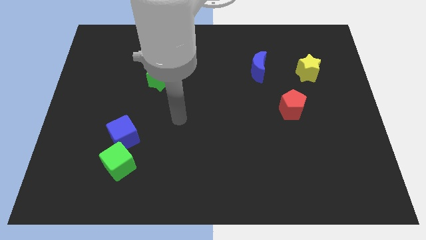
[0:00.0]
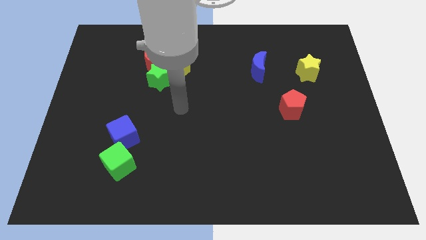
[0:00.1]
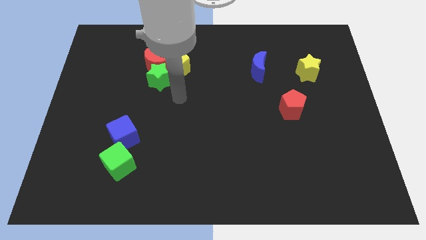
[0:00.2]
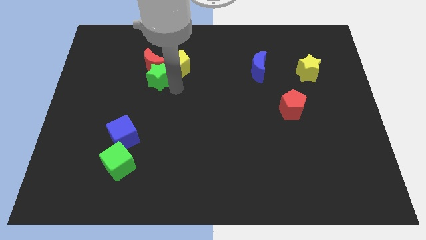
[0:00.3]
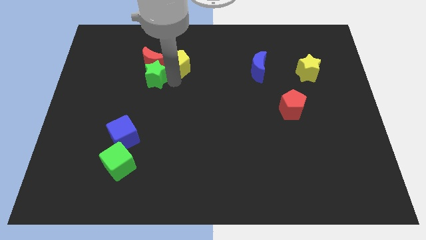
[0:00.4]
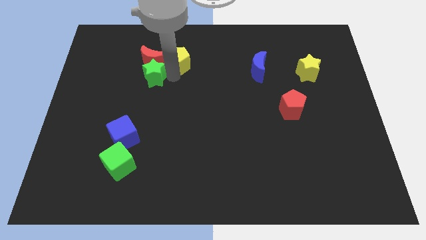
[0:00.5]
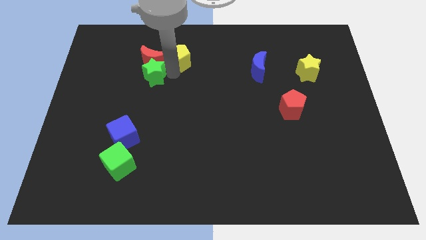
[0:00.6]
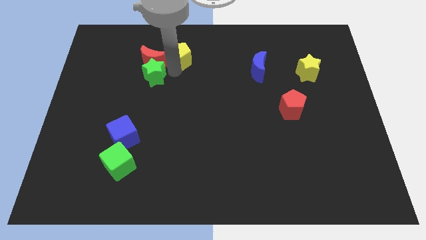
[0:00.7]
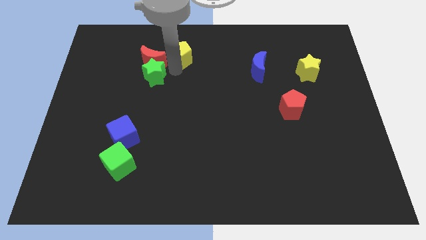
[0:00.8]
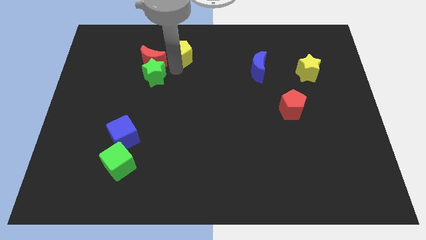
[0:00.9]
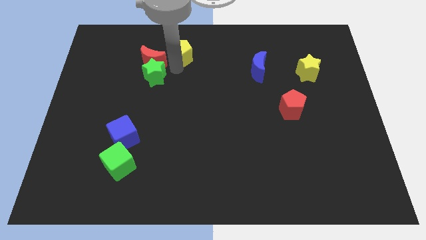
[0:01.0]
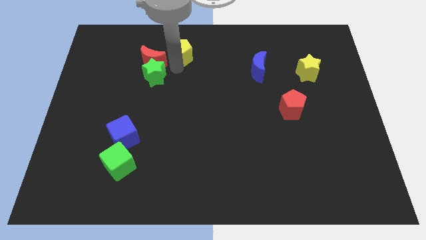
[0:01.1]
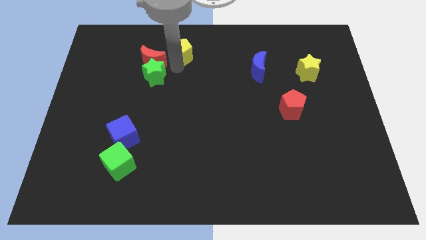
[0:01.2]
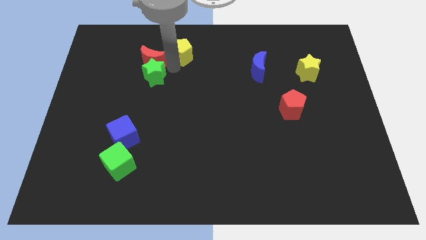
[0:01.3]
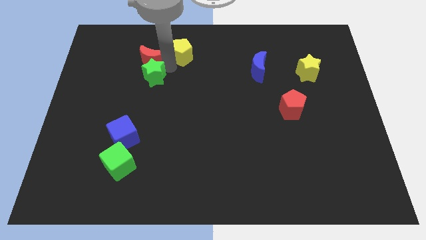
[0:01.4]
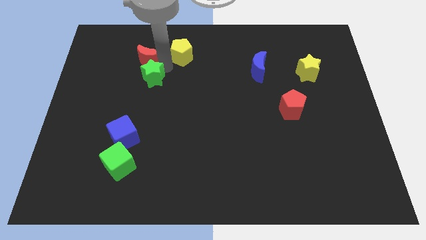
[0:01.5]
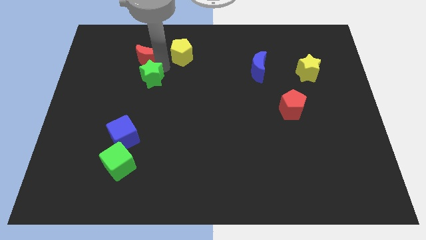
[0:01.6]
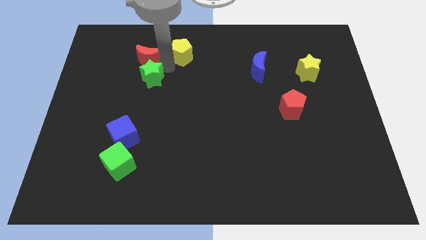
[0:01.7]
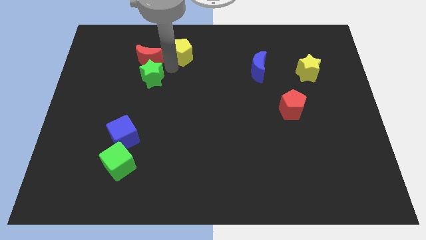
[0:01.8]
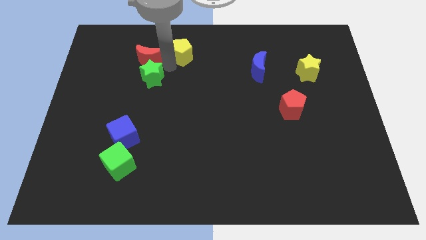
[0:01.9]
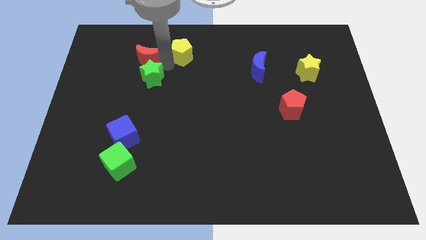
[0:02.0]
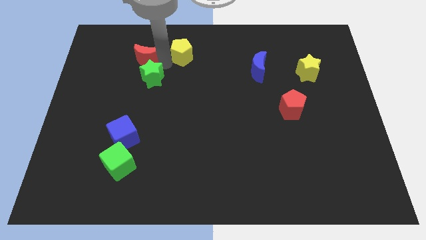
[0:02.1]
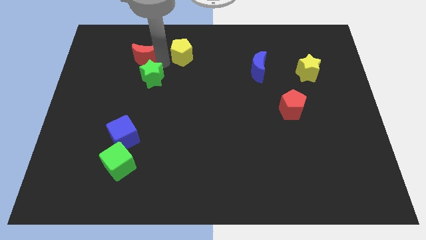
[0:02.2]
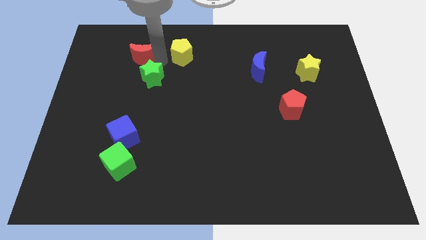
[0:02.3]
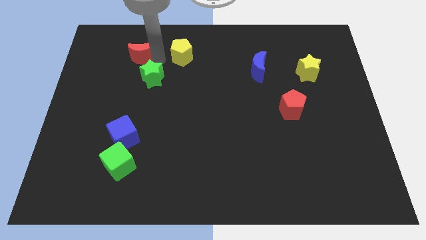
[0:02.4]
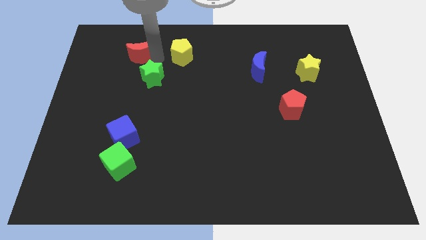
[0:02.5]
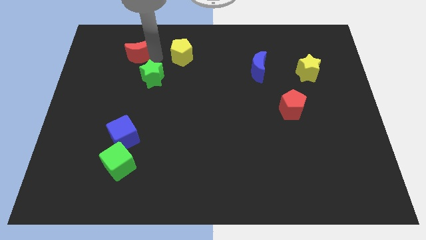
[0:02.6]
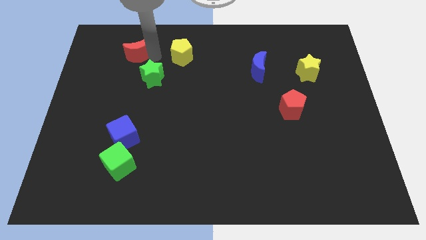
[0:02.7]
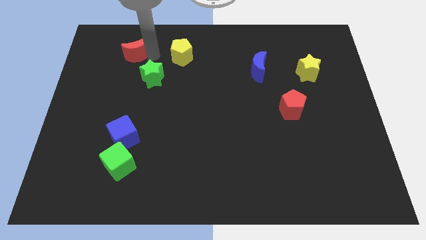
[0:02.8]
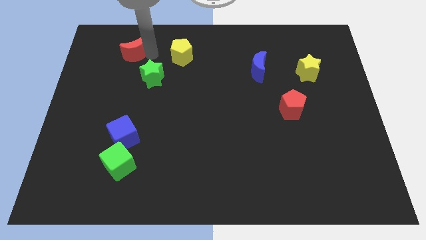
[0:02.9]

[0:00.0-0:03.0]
pull the red moon apart from the green star and yellow pentagon

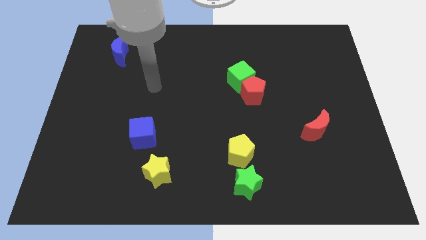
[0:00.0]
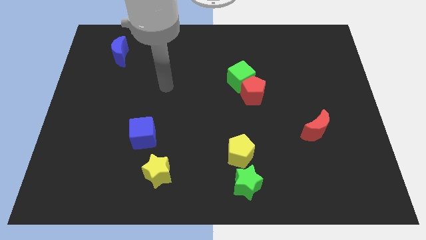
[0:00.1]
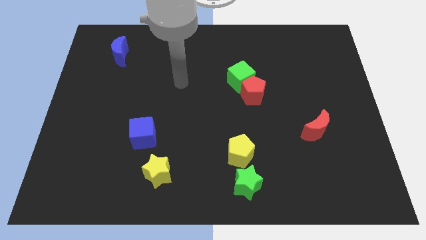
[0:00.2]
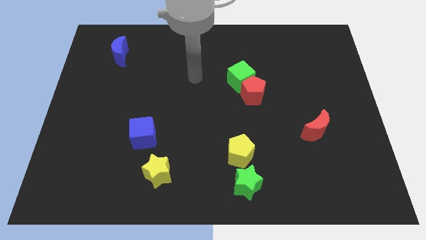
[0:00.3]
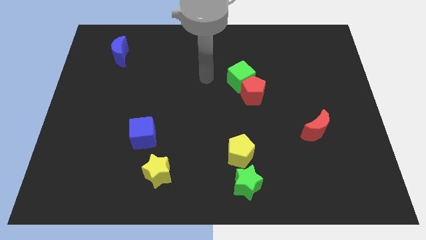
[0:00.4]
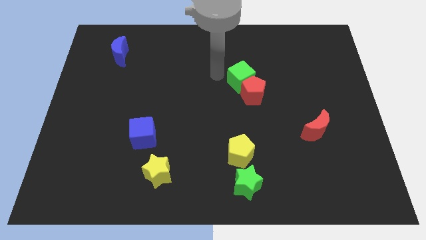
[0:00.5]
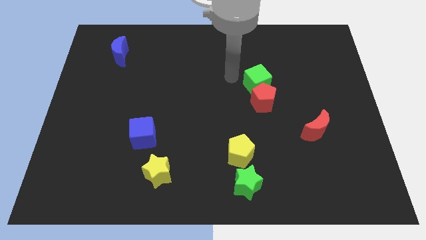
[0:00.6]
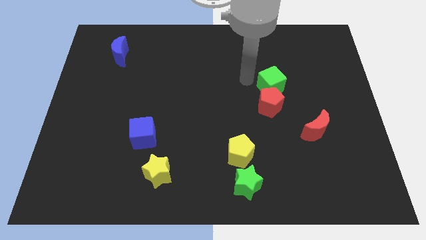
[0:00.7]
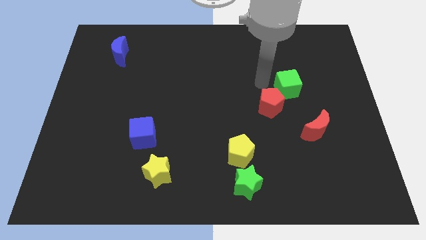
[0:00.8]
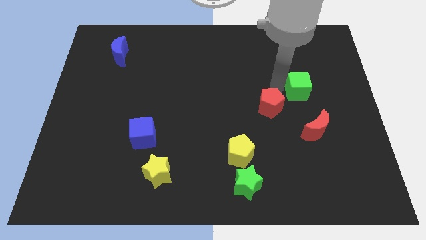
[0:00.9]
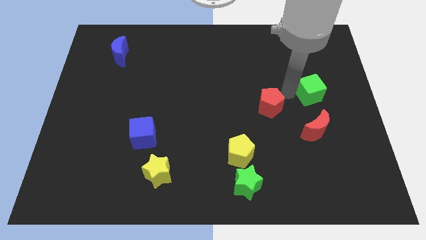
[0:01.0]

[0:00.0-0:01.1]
pull the red pentagon apart from the green cube

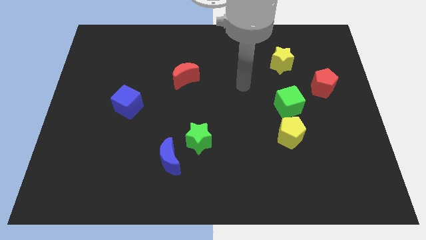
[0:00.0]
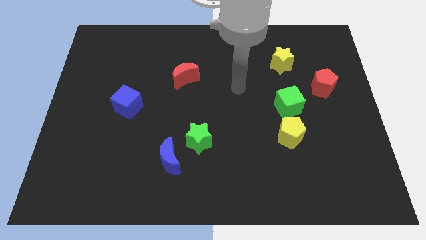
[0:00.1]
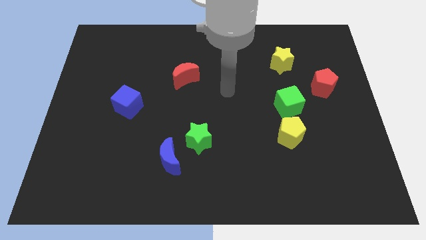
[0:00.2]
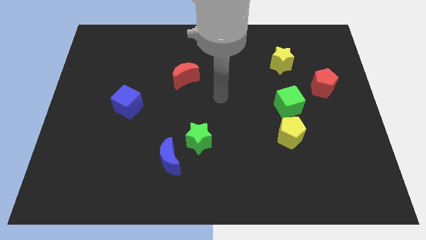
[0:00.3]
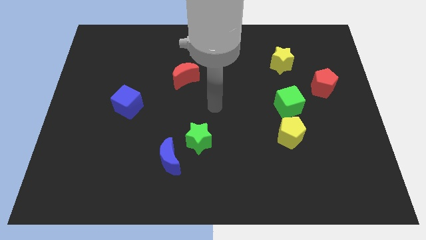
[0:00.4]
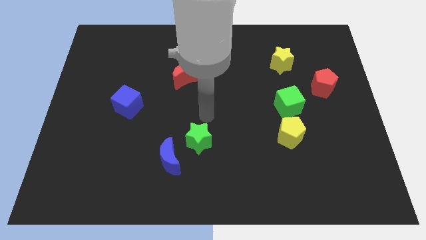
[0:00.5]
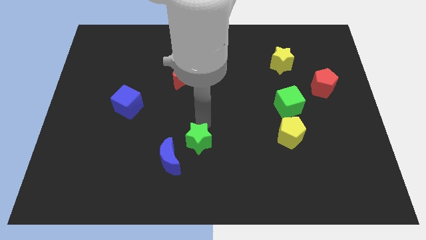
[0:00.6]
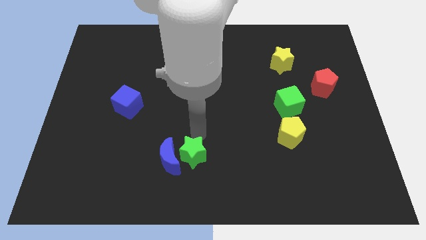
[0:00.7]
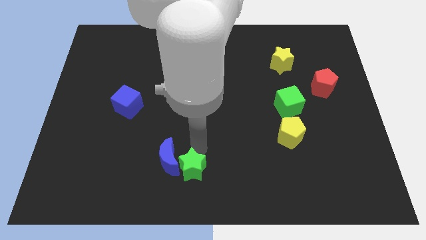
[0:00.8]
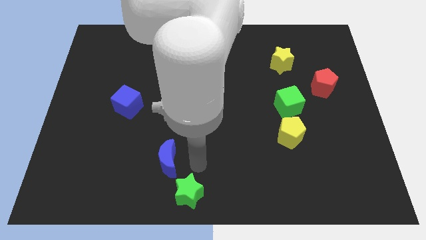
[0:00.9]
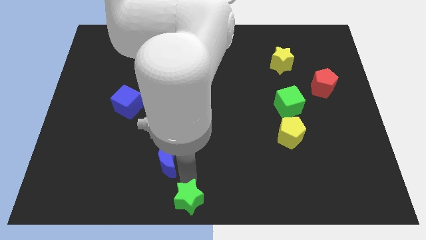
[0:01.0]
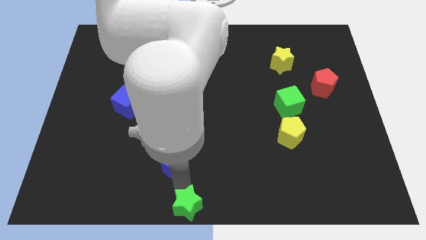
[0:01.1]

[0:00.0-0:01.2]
pull the blue moon apart from the green star

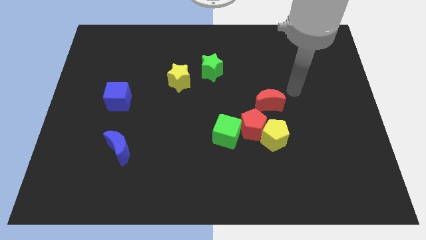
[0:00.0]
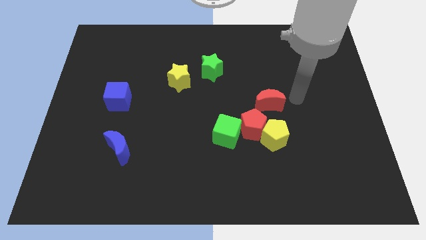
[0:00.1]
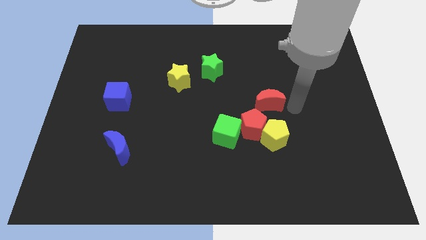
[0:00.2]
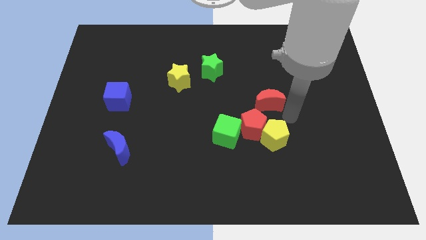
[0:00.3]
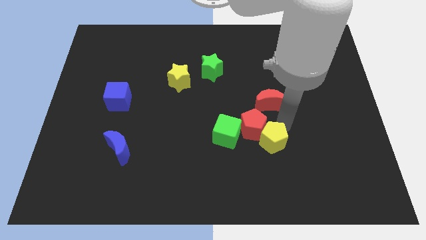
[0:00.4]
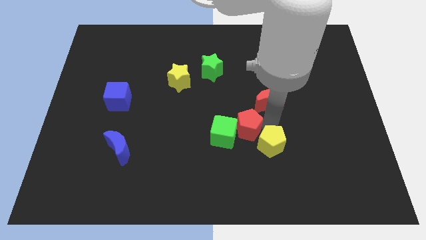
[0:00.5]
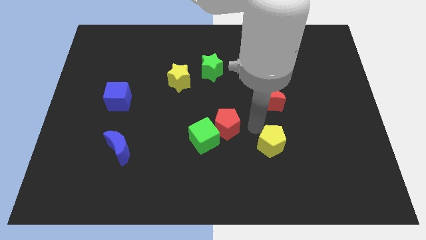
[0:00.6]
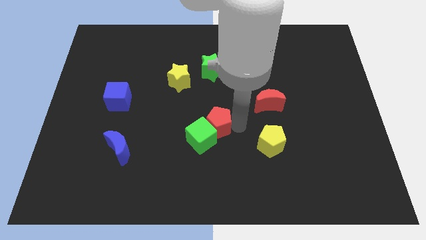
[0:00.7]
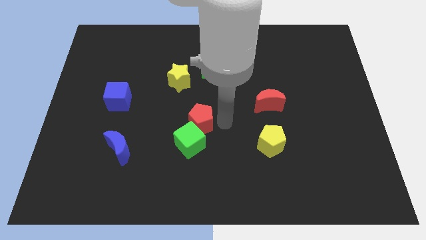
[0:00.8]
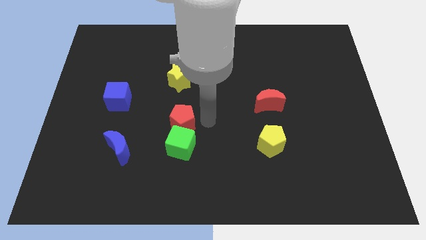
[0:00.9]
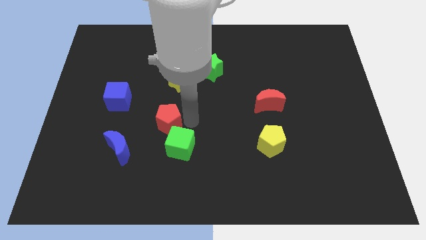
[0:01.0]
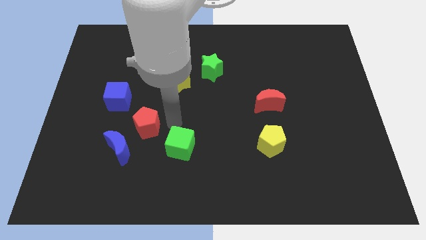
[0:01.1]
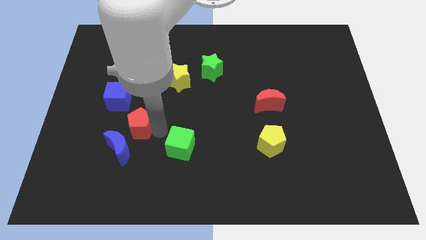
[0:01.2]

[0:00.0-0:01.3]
move the green cube away from the red pentagon

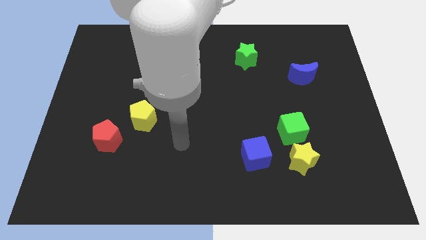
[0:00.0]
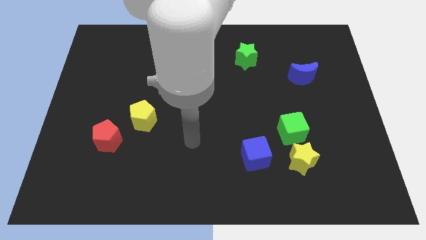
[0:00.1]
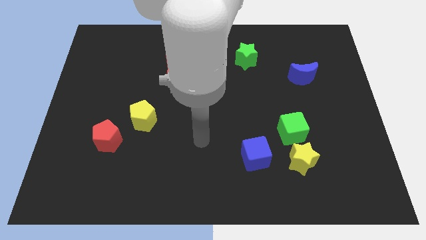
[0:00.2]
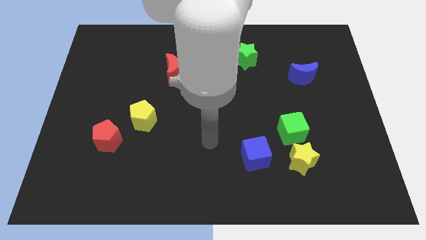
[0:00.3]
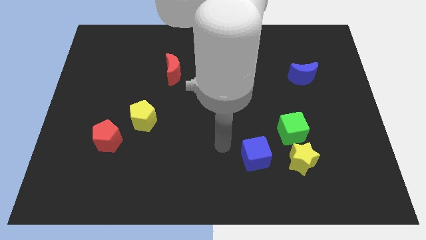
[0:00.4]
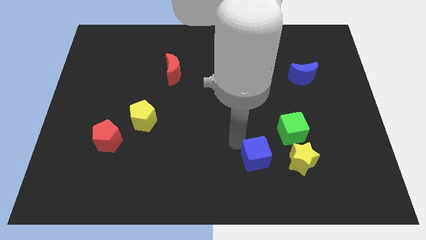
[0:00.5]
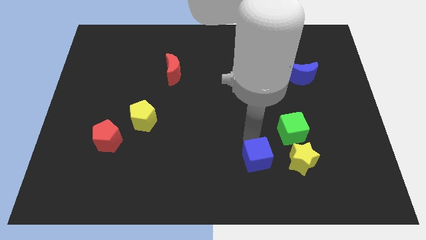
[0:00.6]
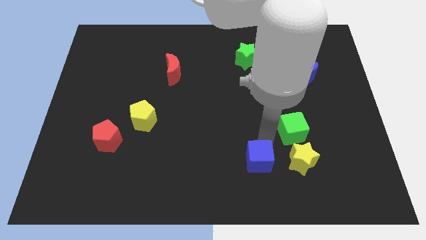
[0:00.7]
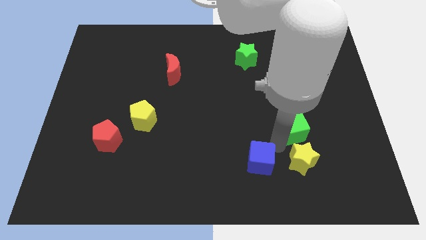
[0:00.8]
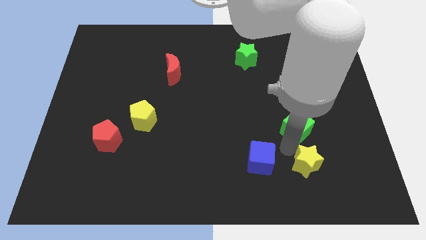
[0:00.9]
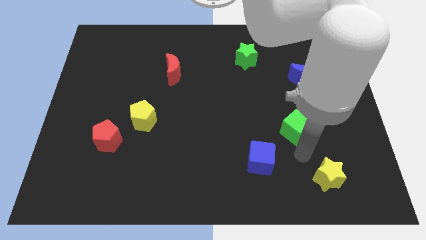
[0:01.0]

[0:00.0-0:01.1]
move the green cube away from the yellow star

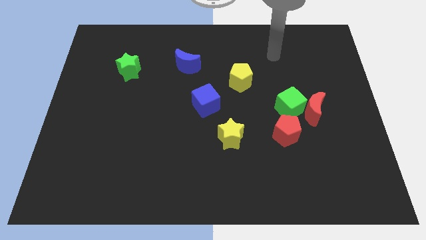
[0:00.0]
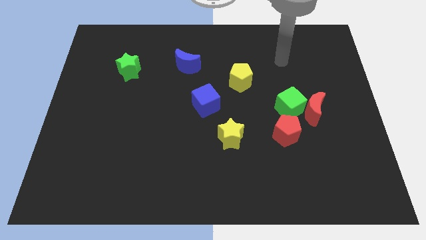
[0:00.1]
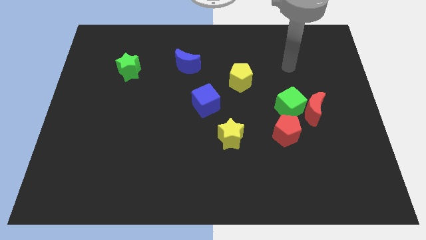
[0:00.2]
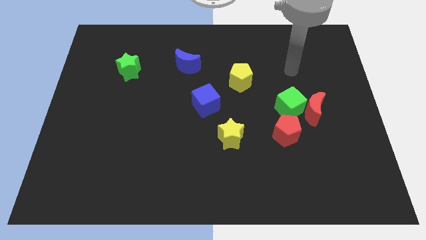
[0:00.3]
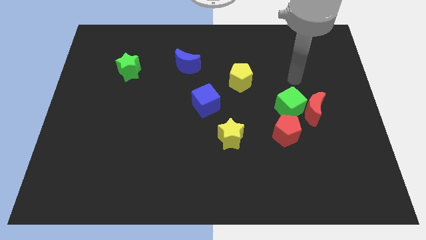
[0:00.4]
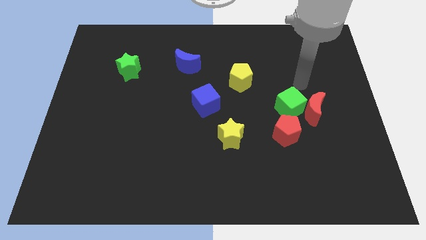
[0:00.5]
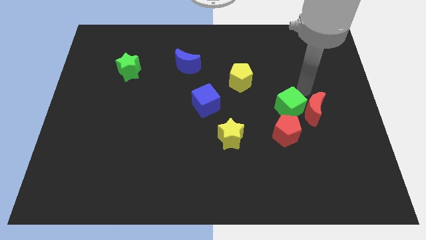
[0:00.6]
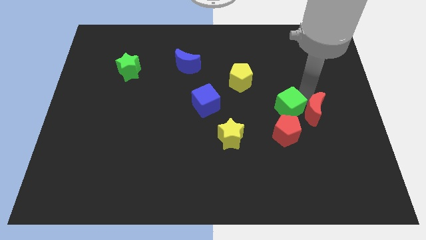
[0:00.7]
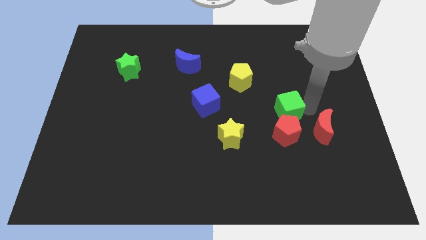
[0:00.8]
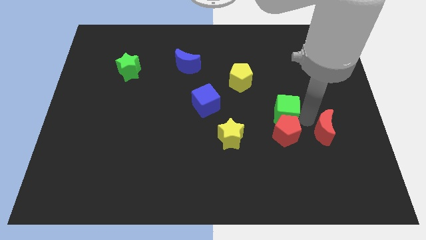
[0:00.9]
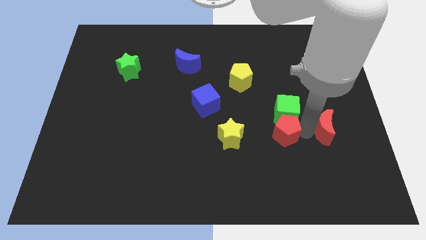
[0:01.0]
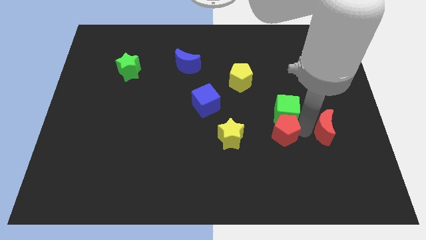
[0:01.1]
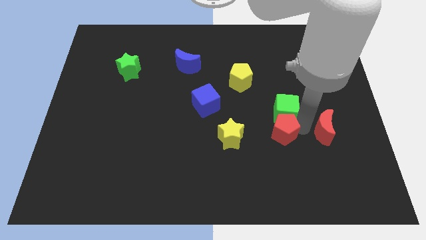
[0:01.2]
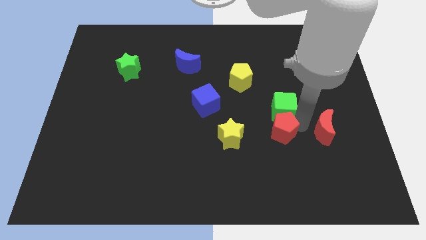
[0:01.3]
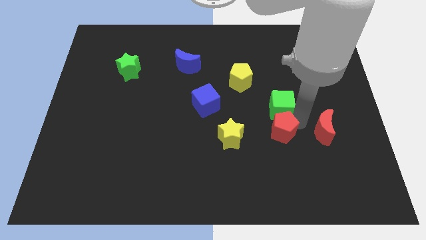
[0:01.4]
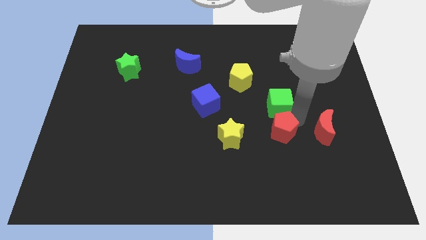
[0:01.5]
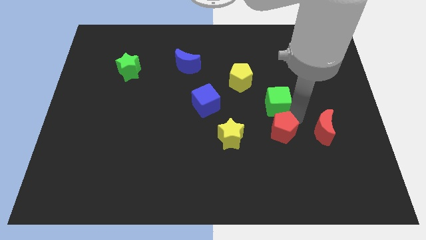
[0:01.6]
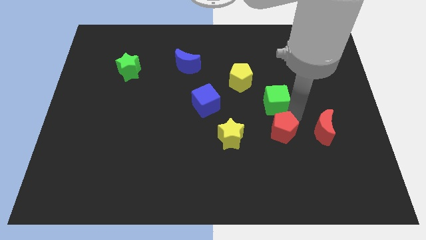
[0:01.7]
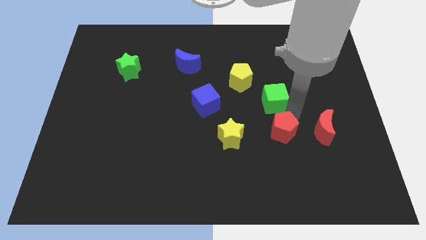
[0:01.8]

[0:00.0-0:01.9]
pull the green cube apart from the red moon and red pentagon
